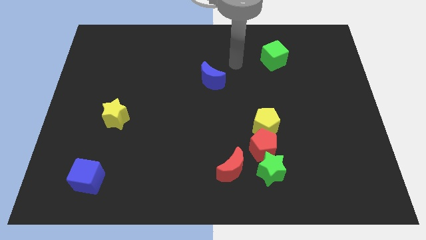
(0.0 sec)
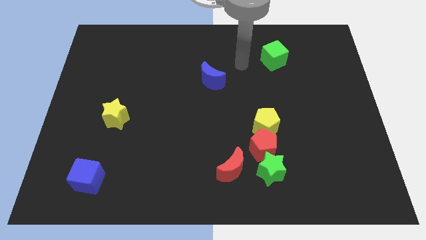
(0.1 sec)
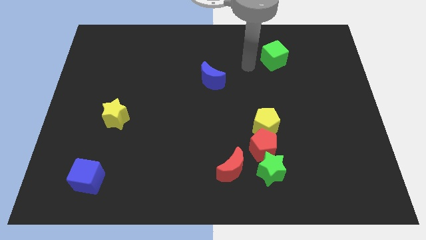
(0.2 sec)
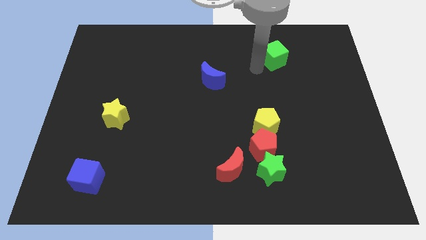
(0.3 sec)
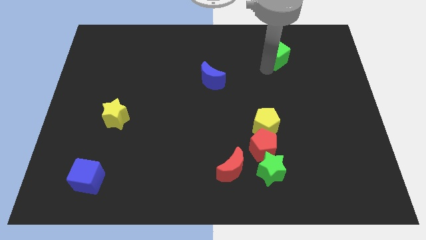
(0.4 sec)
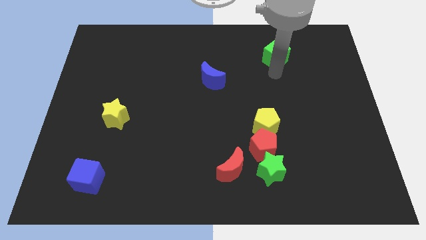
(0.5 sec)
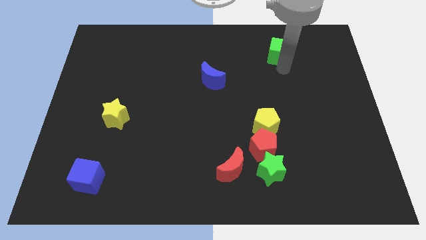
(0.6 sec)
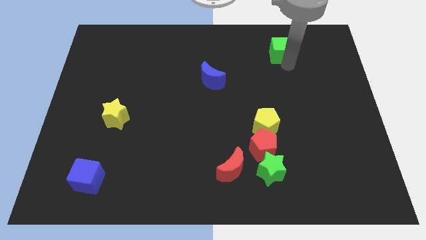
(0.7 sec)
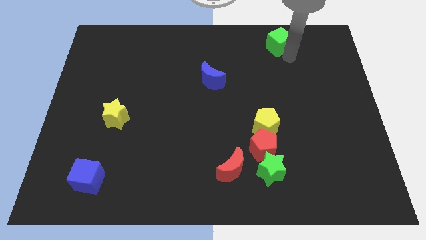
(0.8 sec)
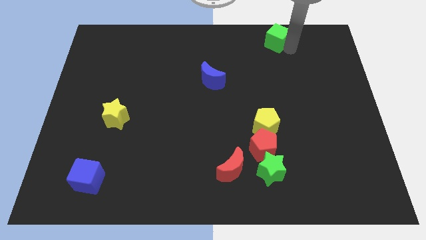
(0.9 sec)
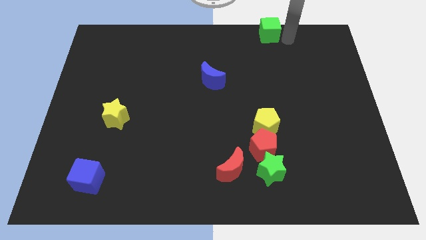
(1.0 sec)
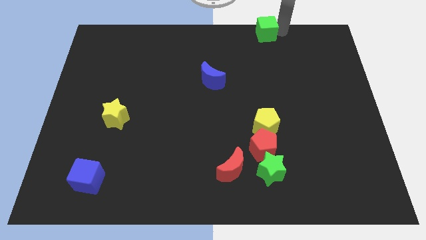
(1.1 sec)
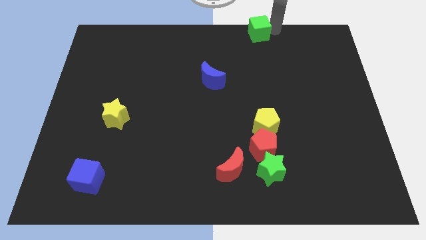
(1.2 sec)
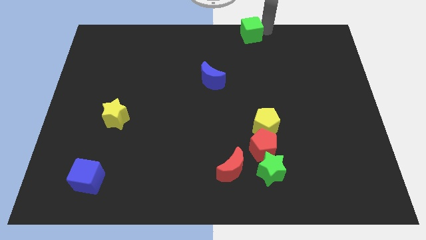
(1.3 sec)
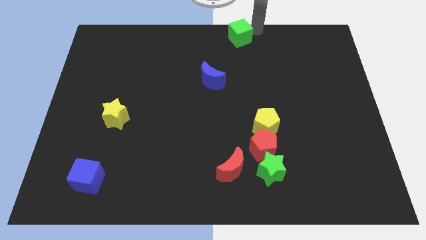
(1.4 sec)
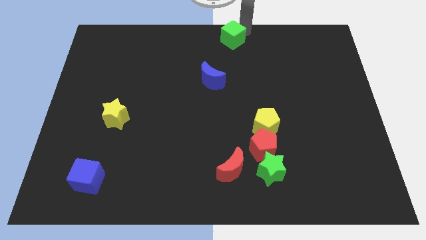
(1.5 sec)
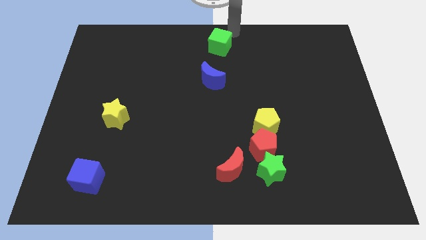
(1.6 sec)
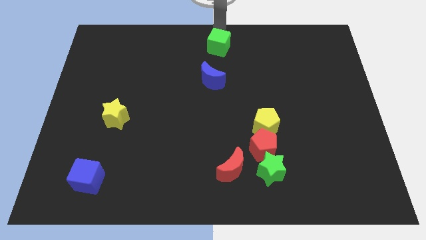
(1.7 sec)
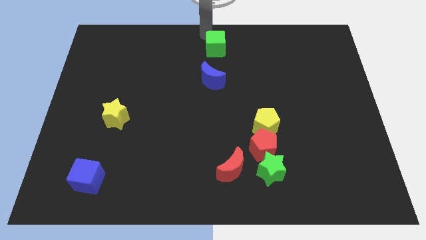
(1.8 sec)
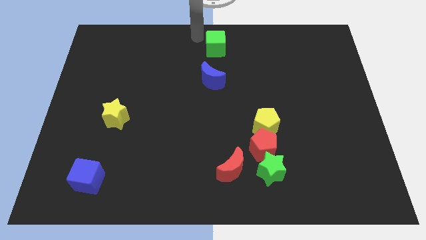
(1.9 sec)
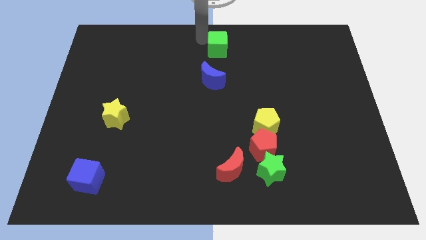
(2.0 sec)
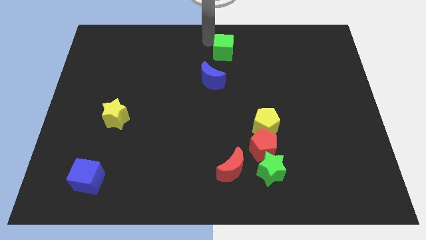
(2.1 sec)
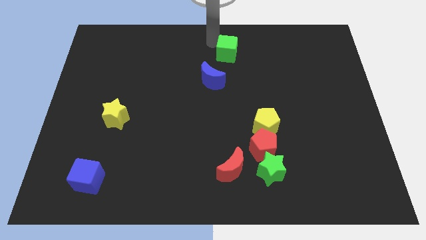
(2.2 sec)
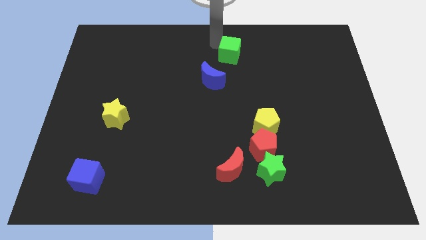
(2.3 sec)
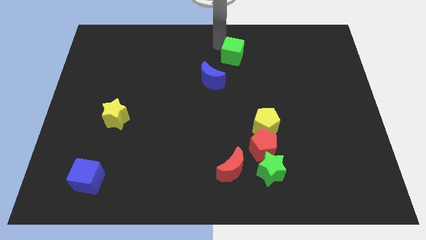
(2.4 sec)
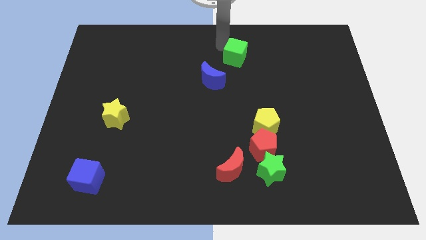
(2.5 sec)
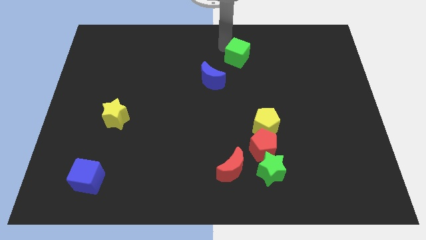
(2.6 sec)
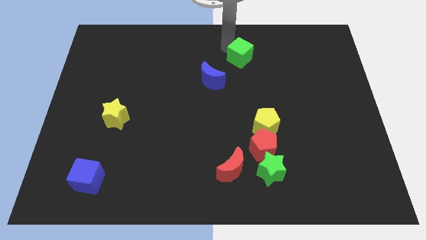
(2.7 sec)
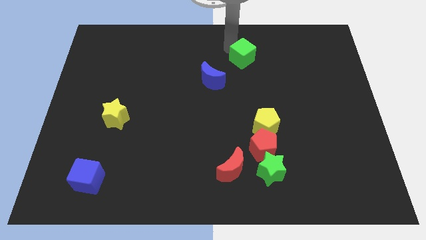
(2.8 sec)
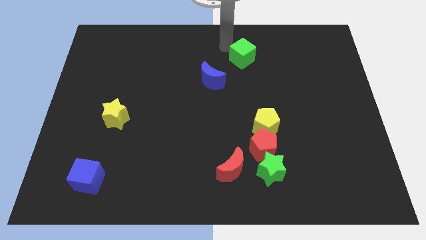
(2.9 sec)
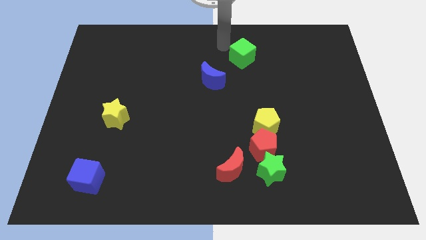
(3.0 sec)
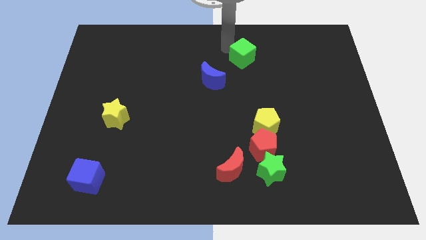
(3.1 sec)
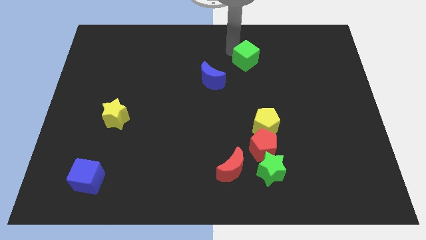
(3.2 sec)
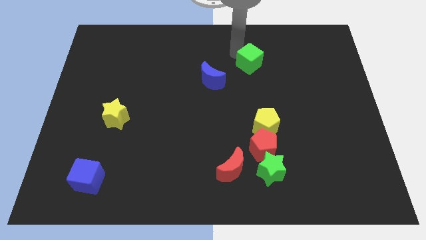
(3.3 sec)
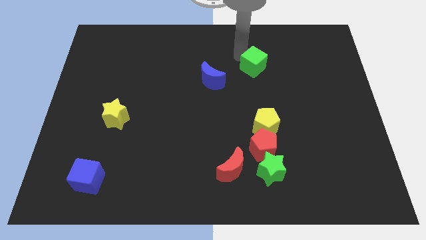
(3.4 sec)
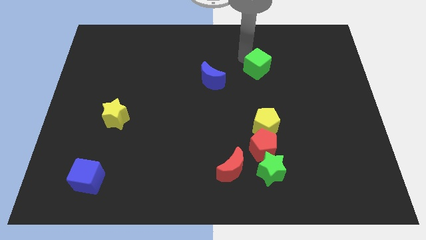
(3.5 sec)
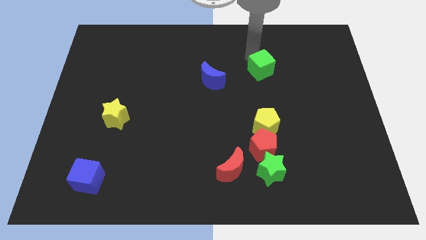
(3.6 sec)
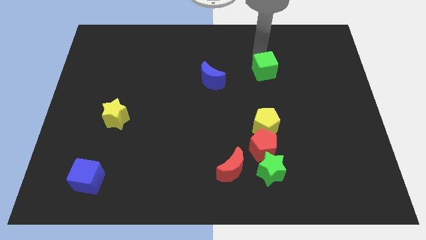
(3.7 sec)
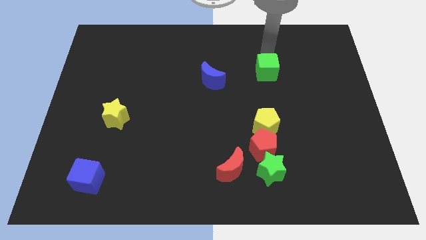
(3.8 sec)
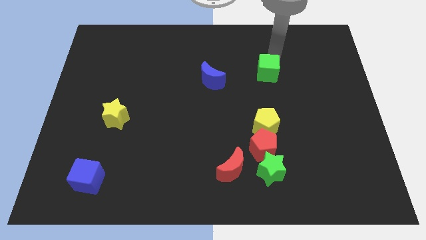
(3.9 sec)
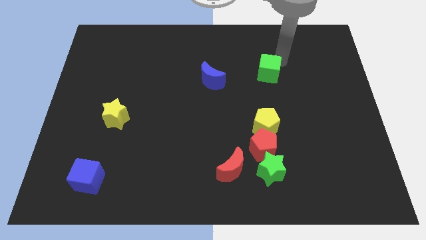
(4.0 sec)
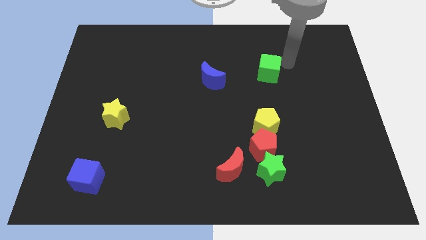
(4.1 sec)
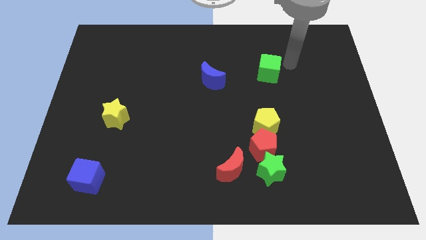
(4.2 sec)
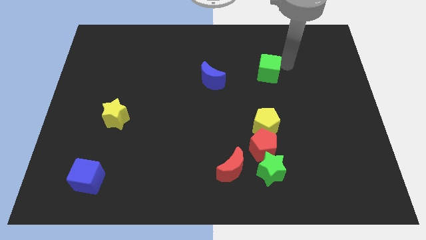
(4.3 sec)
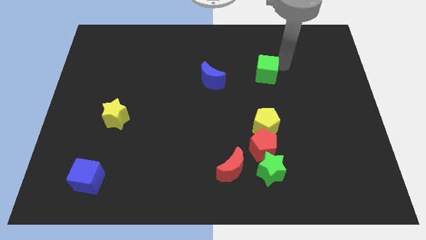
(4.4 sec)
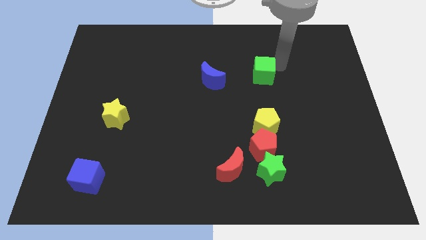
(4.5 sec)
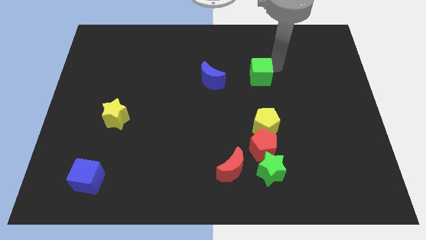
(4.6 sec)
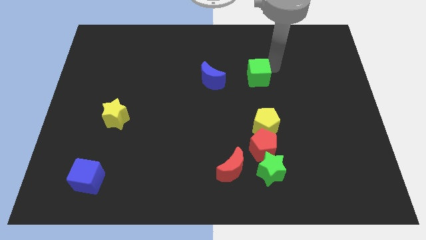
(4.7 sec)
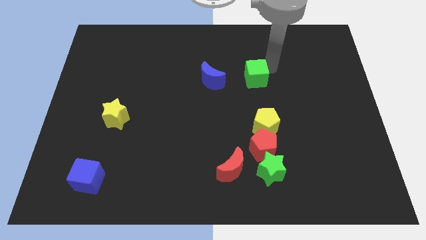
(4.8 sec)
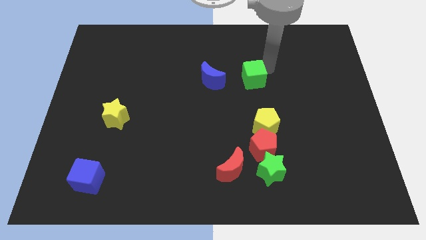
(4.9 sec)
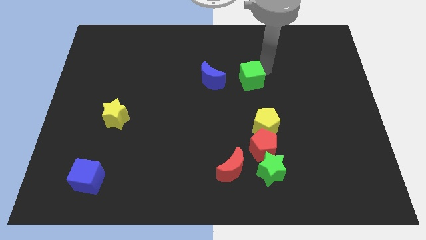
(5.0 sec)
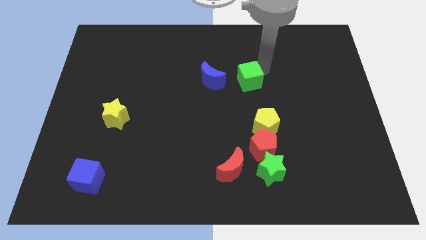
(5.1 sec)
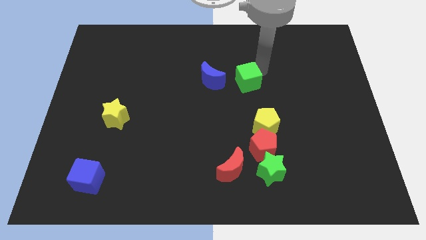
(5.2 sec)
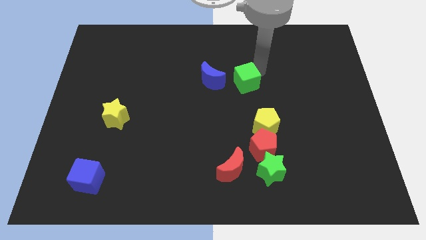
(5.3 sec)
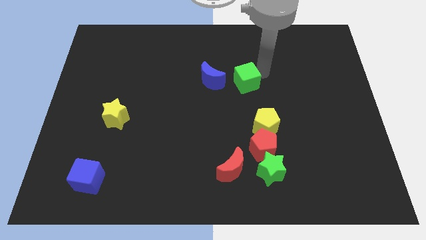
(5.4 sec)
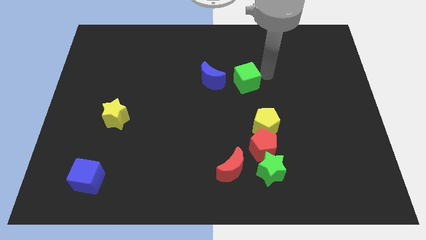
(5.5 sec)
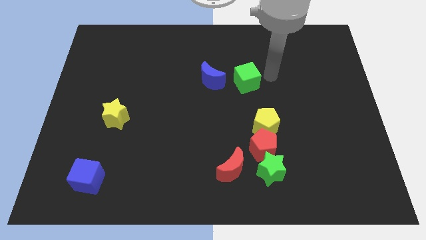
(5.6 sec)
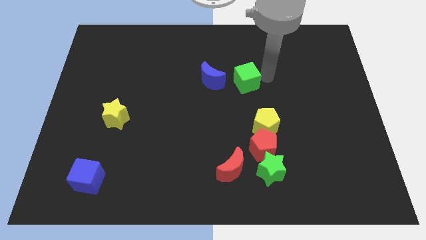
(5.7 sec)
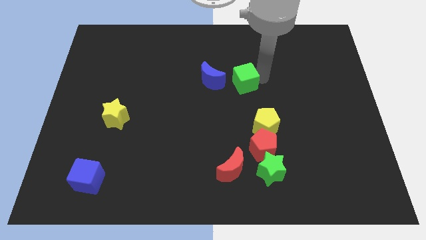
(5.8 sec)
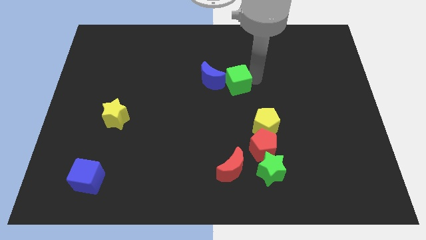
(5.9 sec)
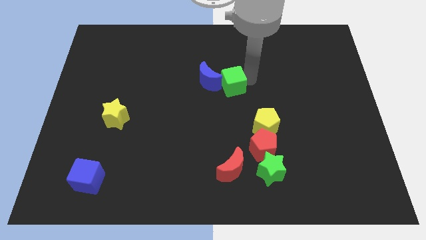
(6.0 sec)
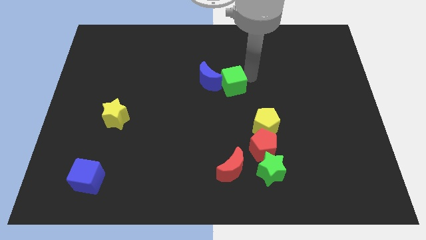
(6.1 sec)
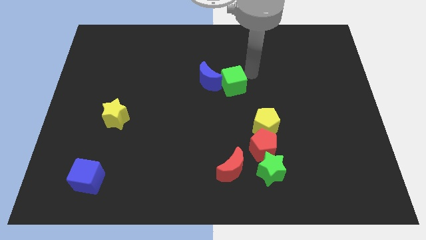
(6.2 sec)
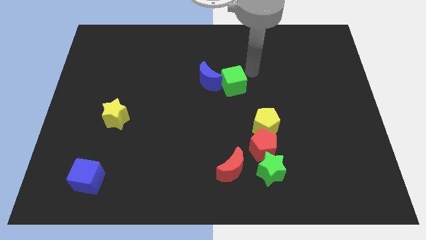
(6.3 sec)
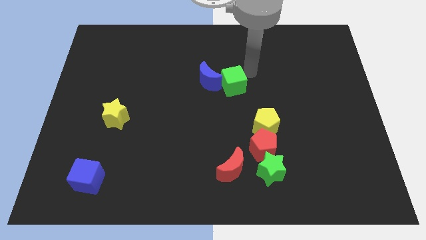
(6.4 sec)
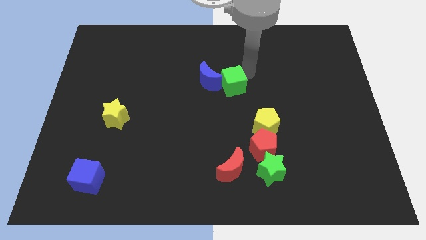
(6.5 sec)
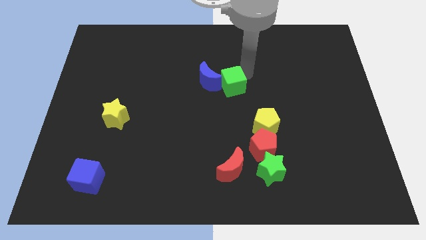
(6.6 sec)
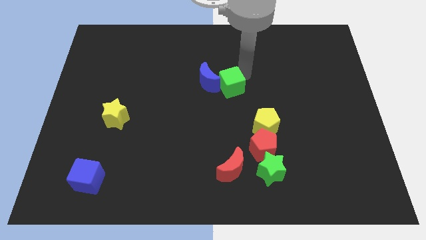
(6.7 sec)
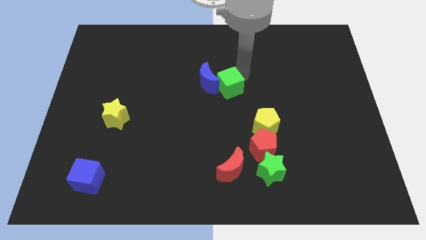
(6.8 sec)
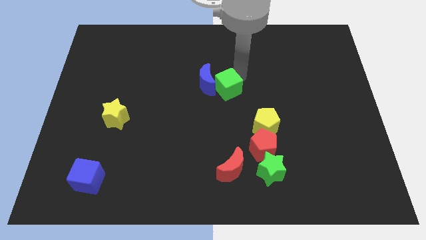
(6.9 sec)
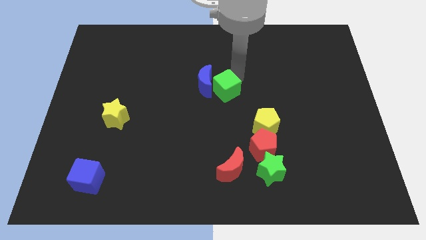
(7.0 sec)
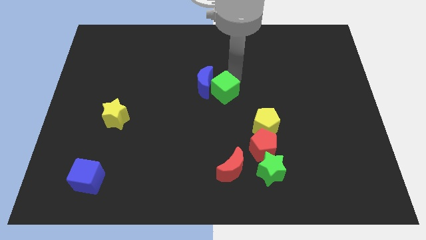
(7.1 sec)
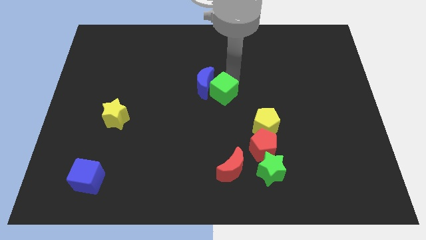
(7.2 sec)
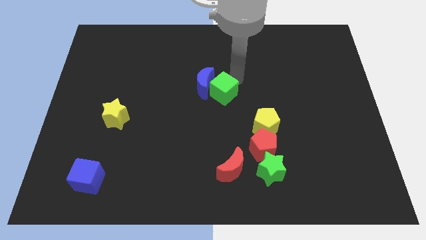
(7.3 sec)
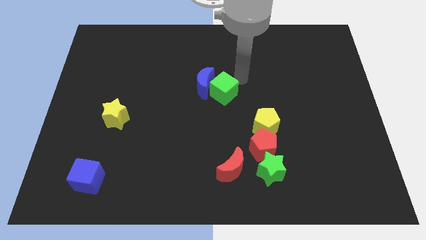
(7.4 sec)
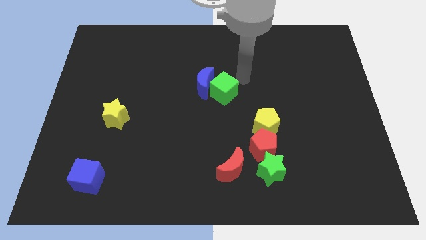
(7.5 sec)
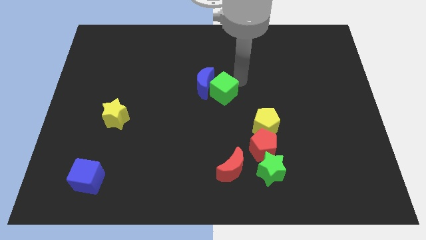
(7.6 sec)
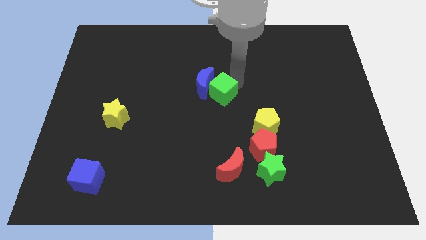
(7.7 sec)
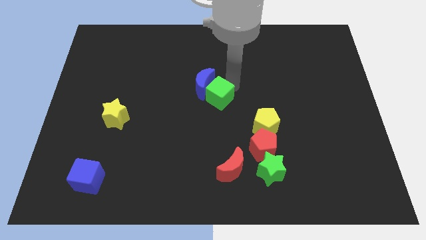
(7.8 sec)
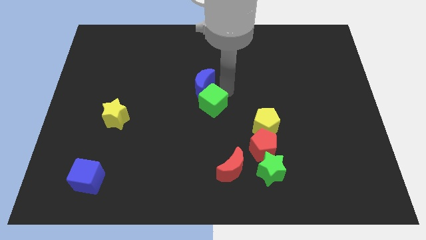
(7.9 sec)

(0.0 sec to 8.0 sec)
slide the green cube diagonally downwards and to the left
